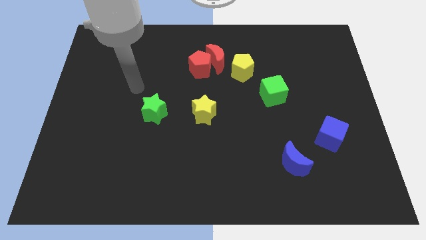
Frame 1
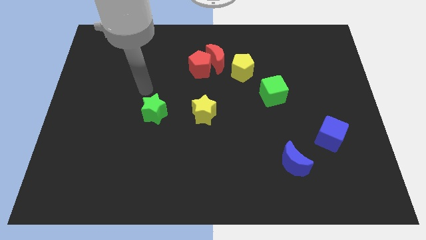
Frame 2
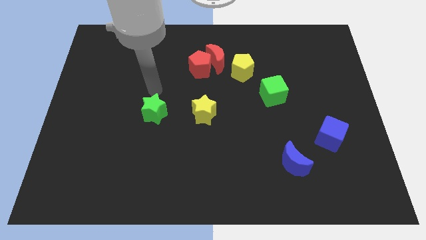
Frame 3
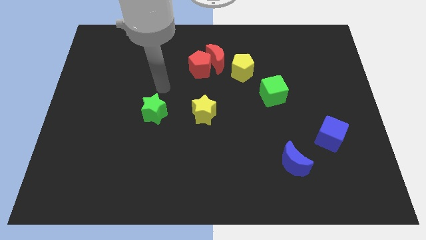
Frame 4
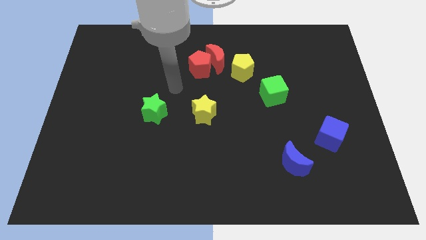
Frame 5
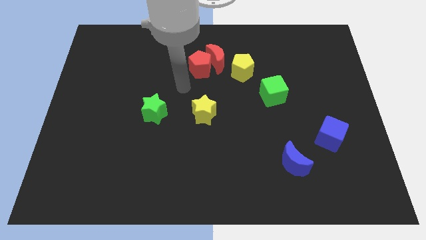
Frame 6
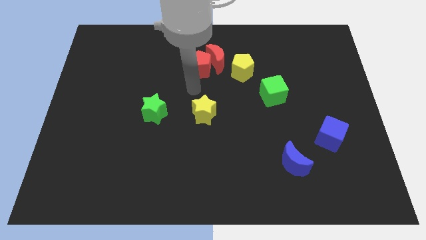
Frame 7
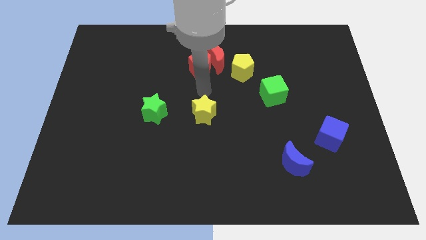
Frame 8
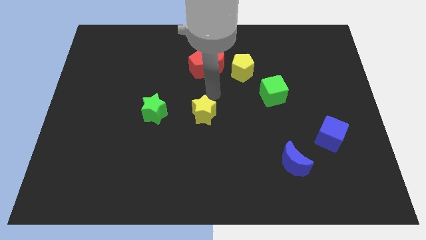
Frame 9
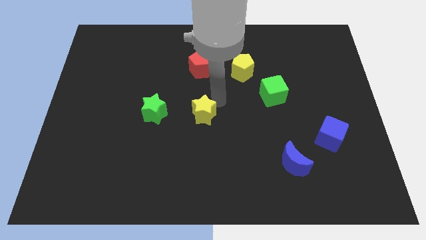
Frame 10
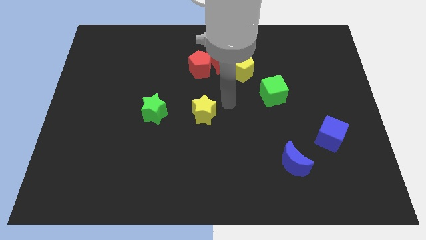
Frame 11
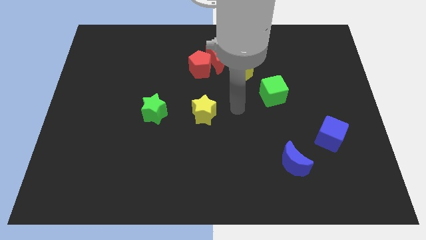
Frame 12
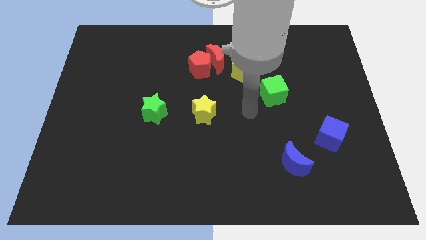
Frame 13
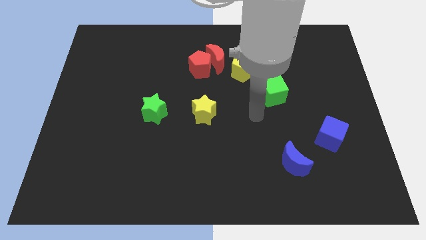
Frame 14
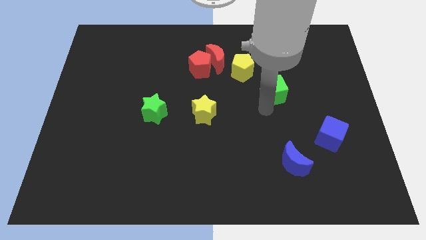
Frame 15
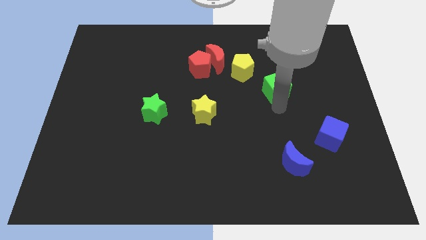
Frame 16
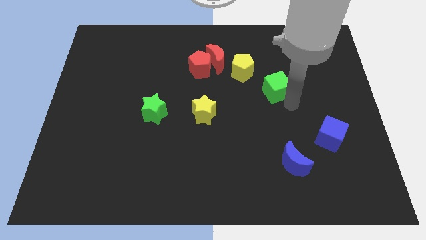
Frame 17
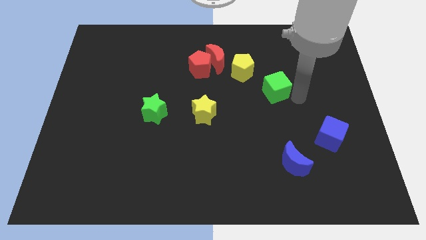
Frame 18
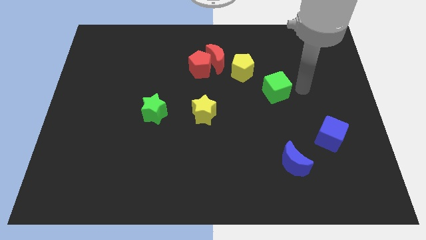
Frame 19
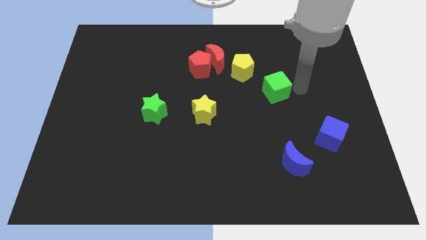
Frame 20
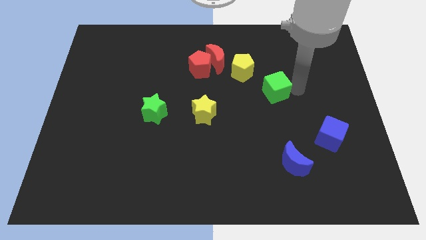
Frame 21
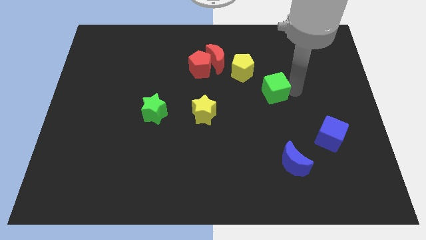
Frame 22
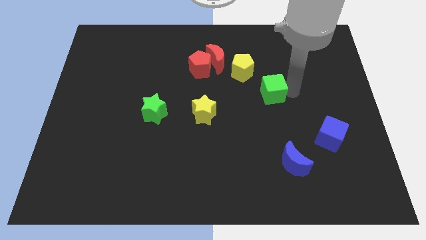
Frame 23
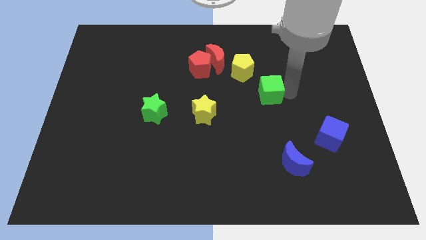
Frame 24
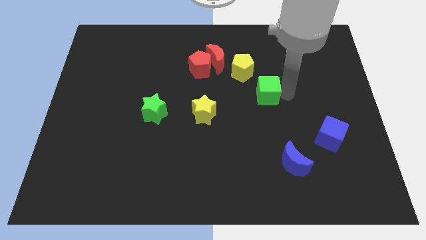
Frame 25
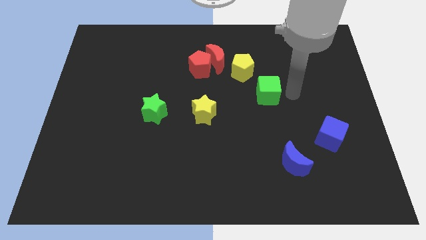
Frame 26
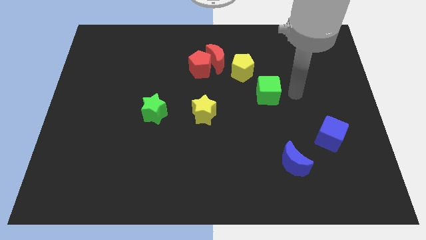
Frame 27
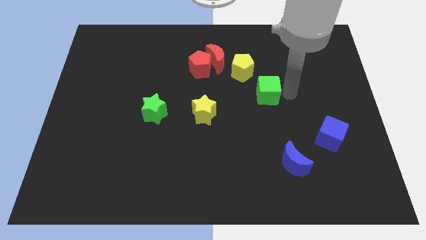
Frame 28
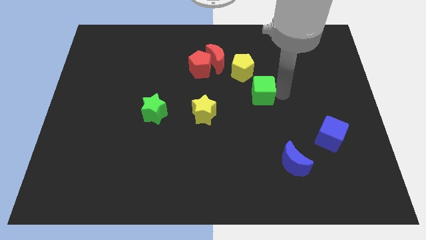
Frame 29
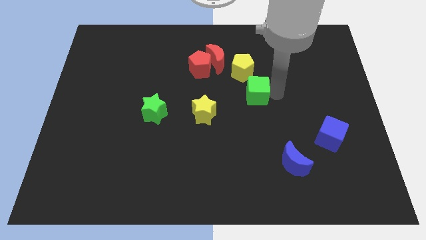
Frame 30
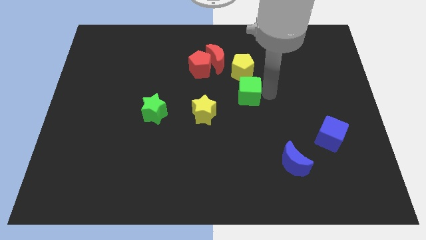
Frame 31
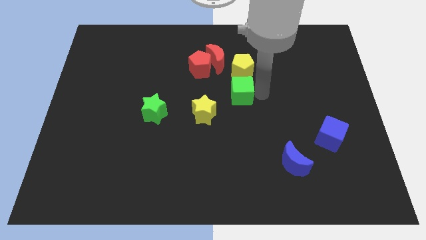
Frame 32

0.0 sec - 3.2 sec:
push the green cube left slightly

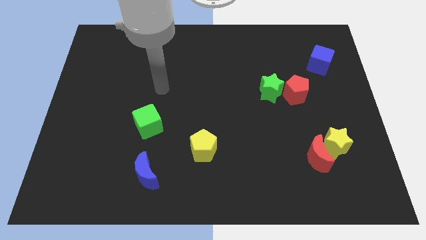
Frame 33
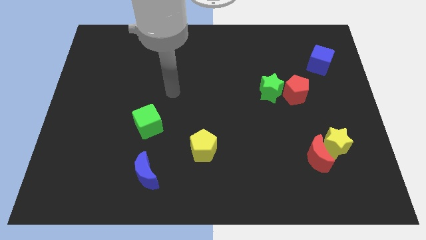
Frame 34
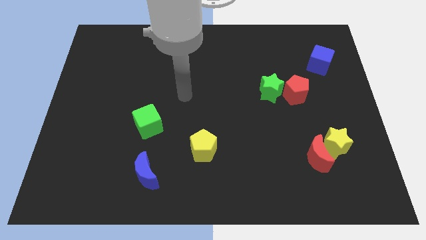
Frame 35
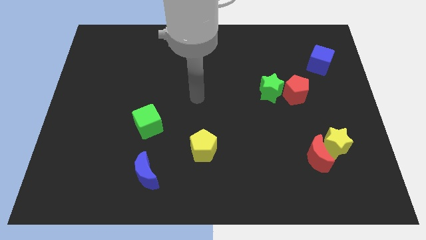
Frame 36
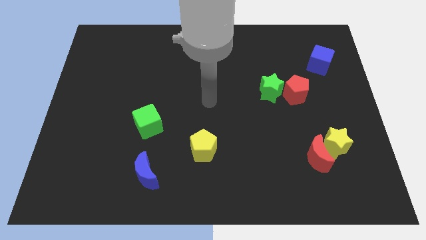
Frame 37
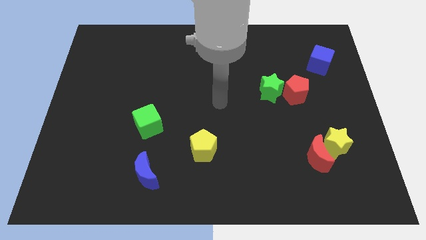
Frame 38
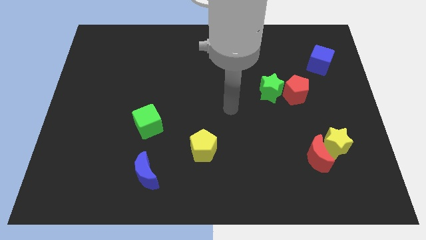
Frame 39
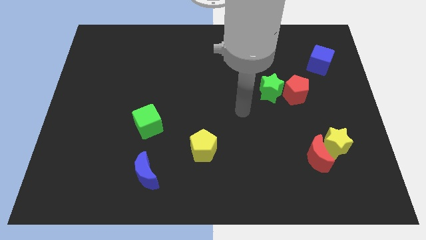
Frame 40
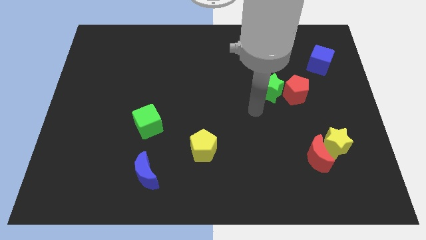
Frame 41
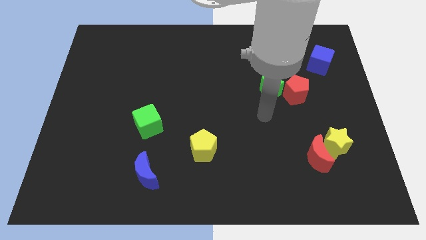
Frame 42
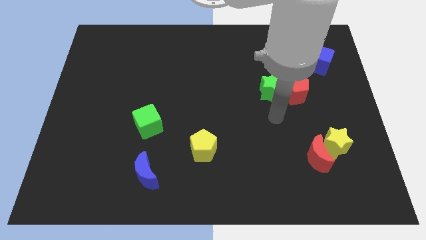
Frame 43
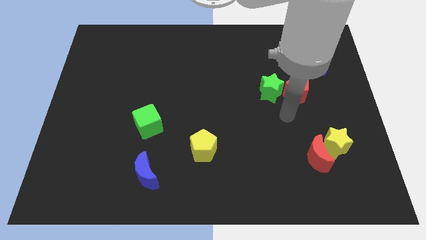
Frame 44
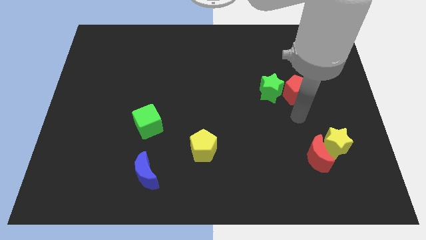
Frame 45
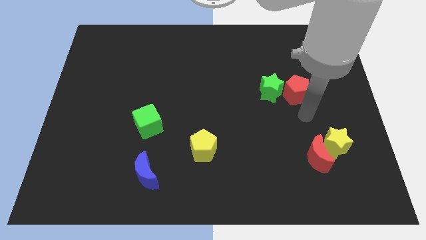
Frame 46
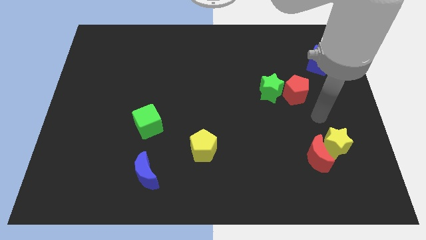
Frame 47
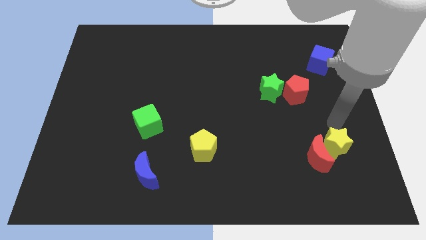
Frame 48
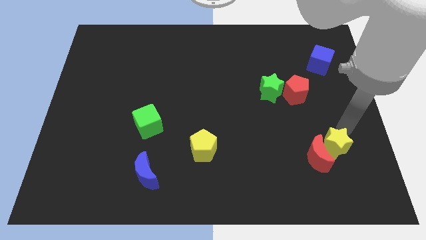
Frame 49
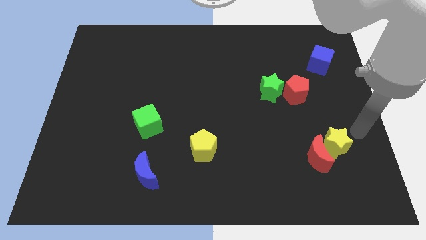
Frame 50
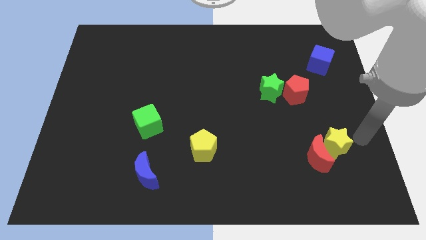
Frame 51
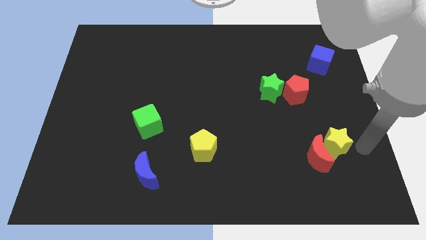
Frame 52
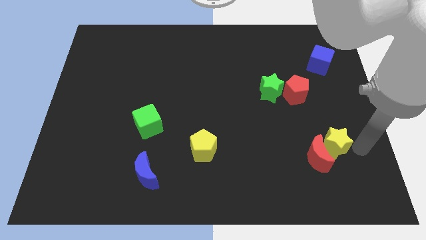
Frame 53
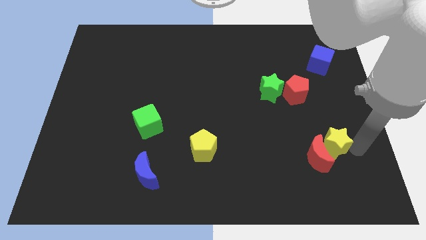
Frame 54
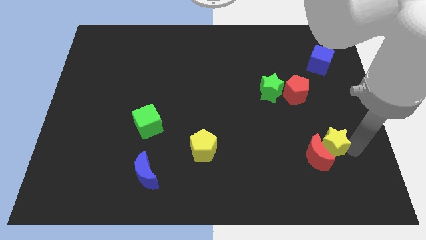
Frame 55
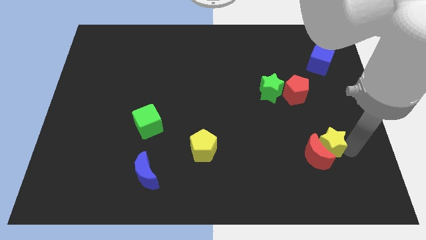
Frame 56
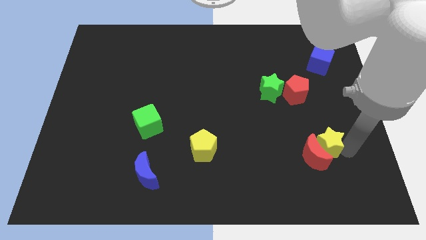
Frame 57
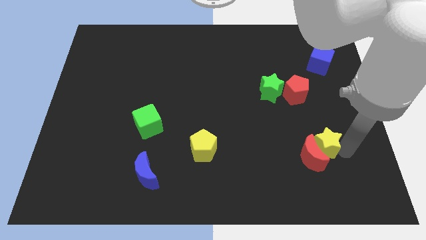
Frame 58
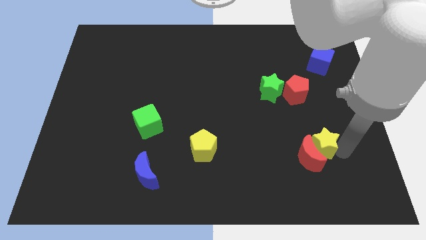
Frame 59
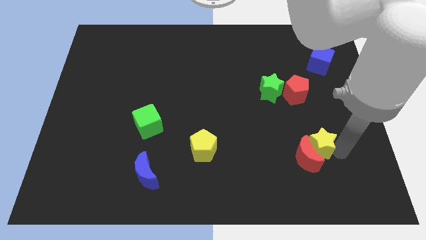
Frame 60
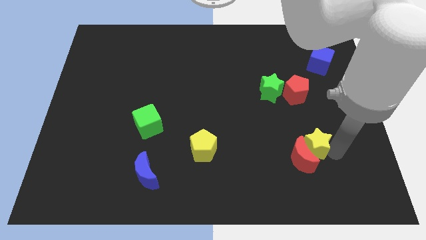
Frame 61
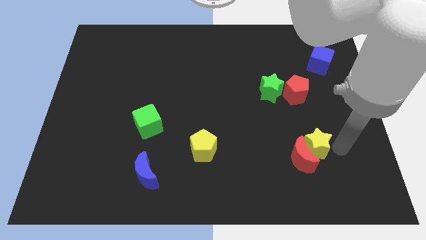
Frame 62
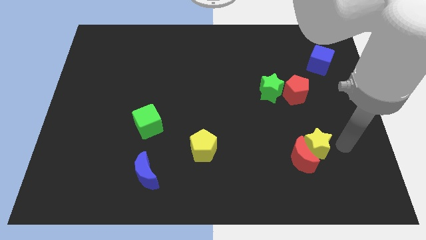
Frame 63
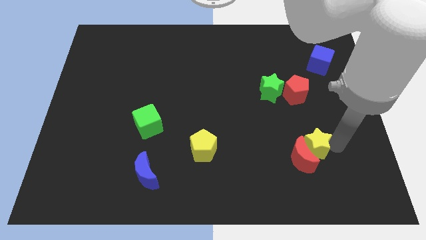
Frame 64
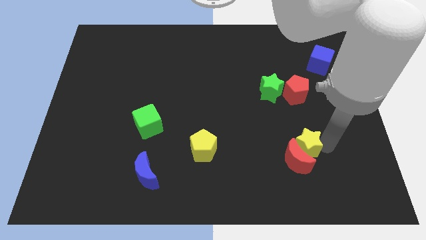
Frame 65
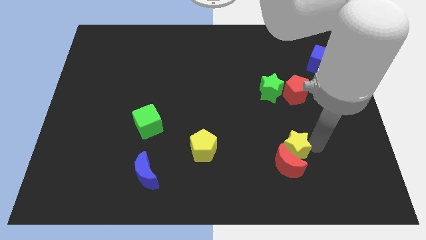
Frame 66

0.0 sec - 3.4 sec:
move the yellow star left a little bit

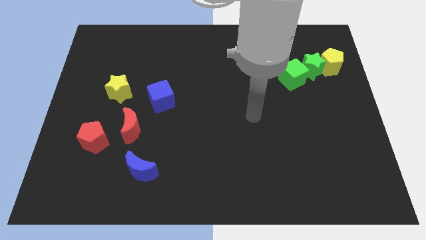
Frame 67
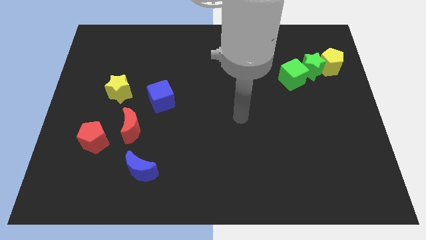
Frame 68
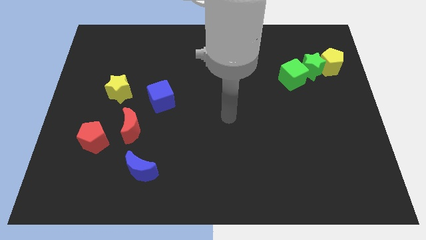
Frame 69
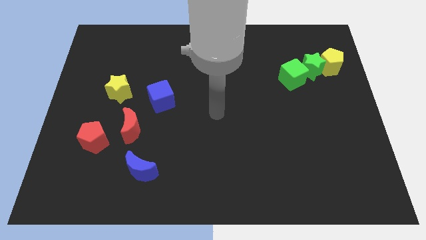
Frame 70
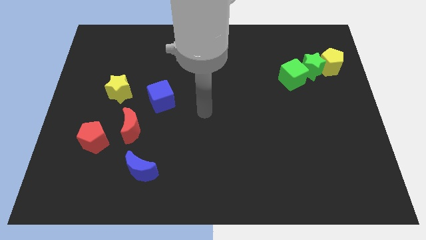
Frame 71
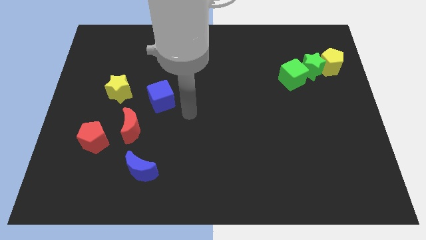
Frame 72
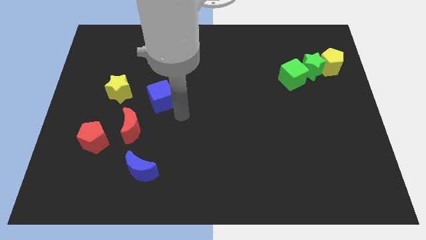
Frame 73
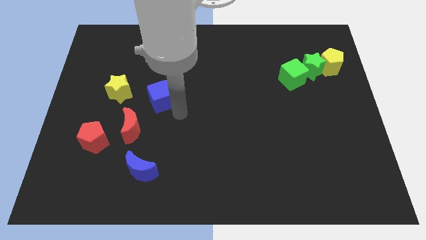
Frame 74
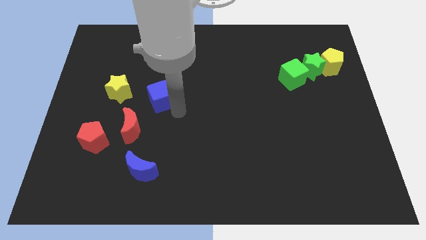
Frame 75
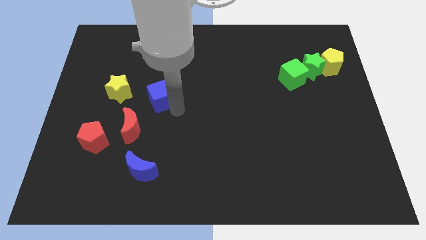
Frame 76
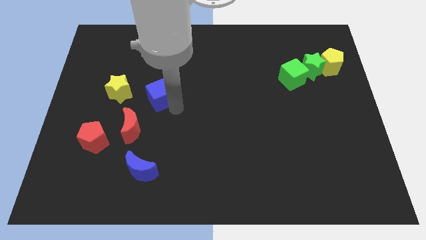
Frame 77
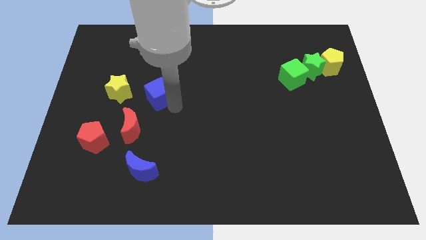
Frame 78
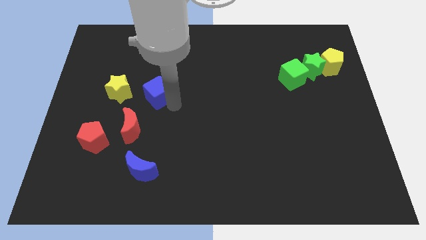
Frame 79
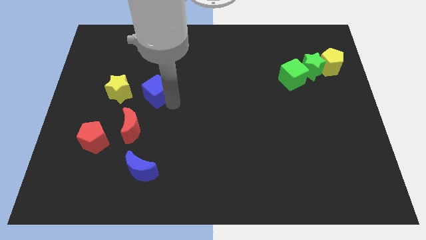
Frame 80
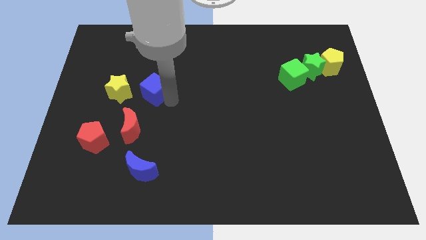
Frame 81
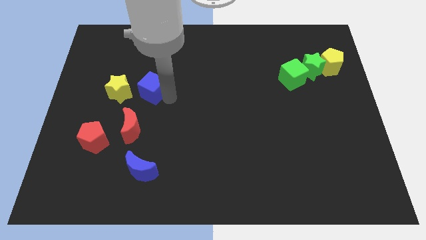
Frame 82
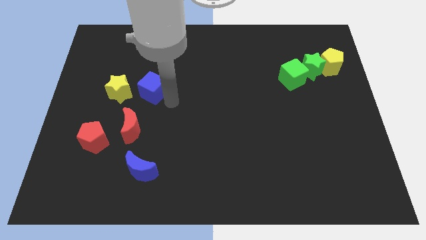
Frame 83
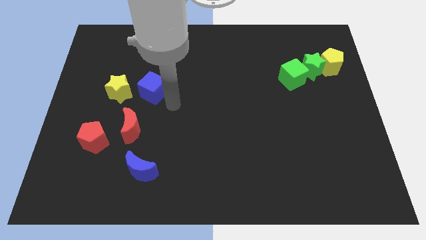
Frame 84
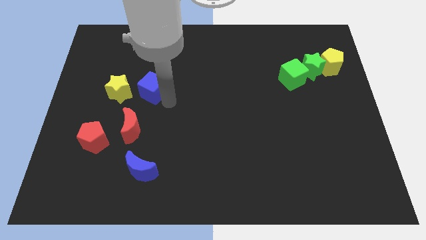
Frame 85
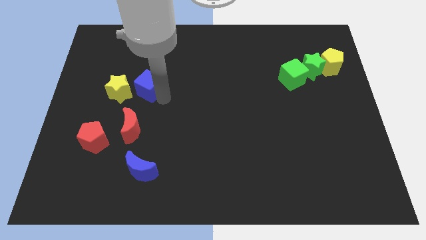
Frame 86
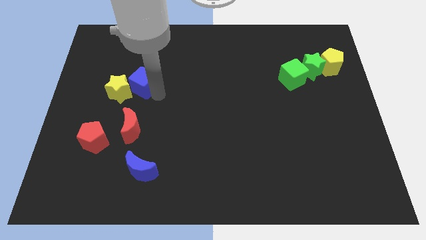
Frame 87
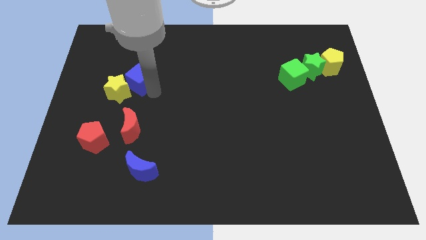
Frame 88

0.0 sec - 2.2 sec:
slightly move the blue cube up and to the left diagonally
